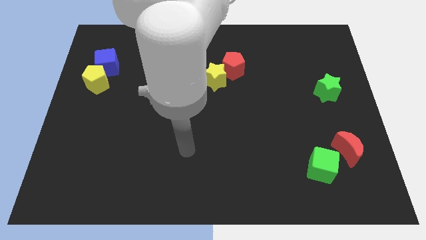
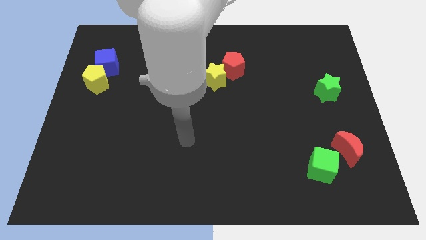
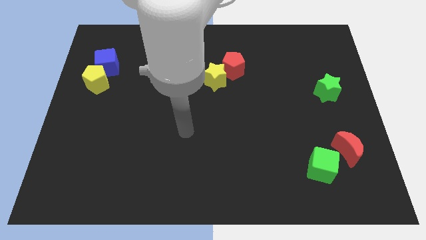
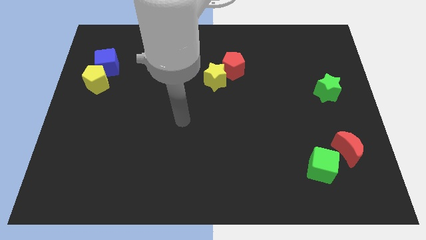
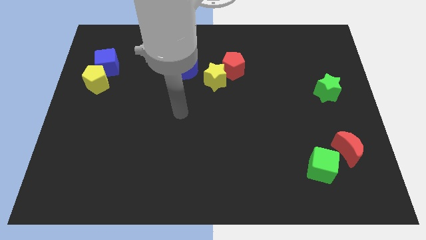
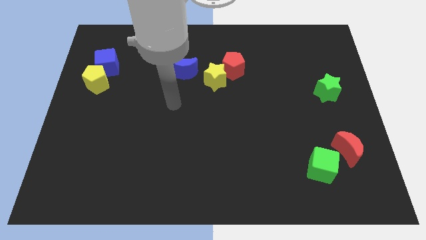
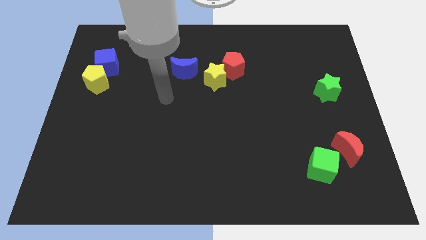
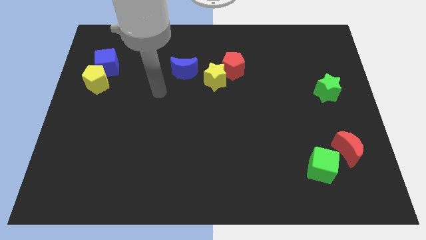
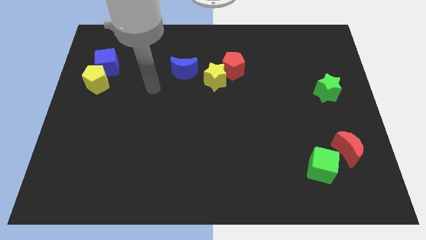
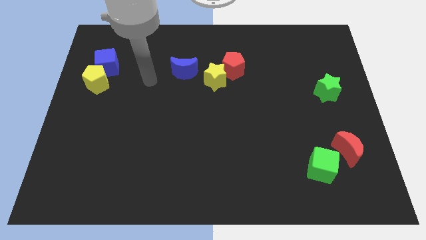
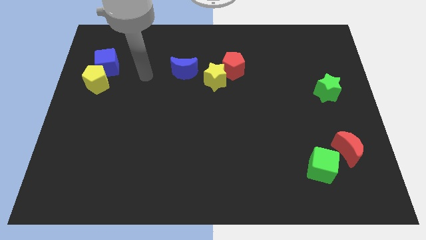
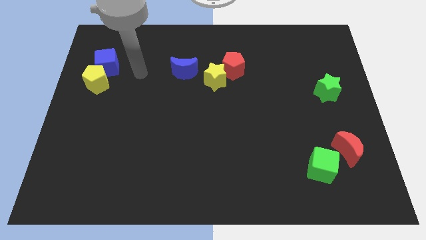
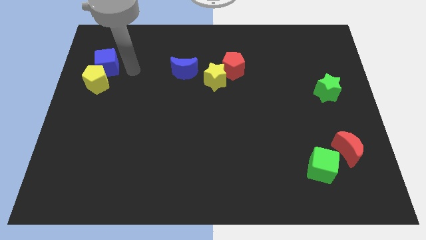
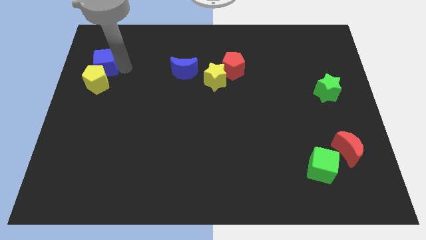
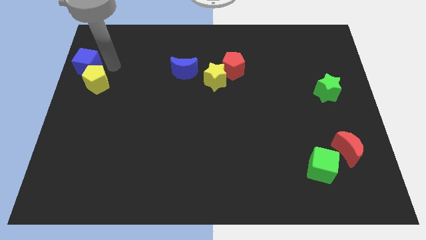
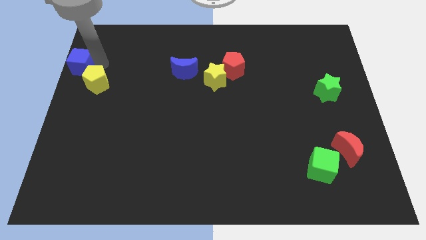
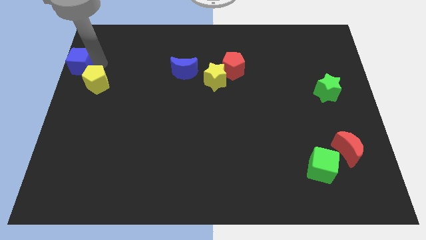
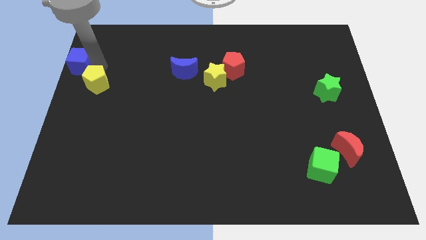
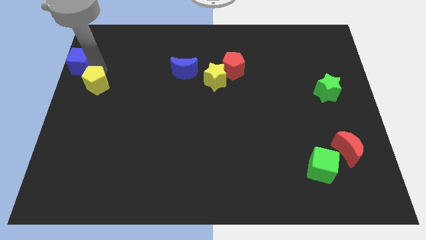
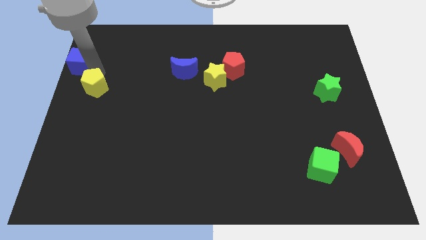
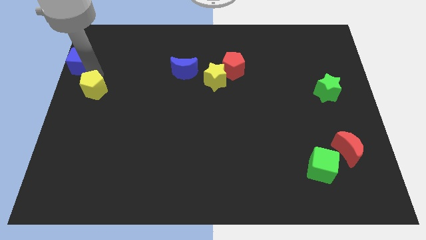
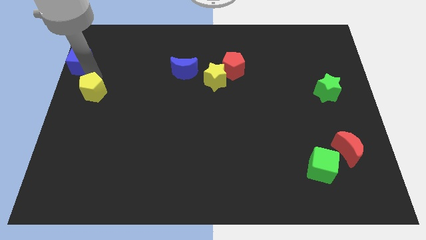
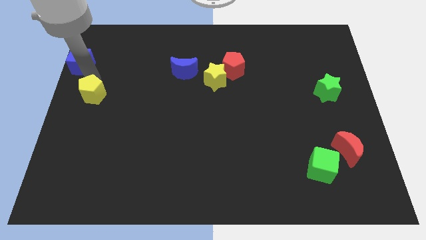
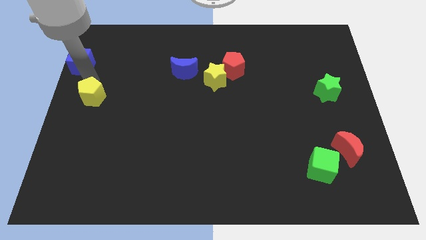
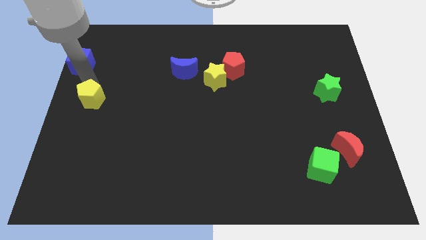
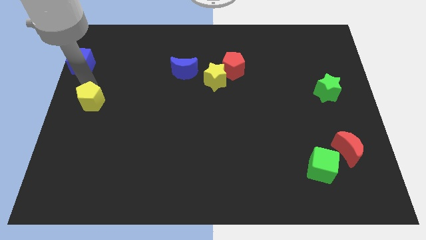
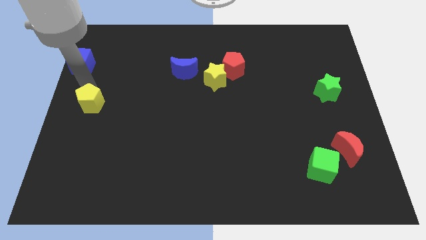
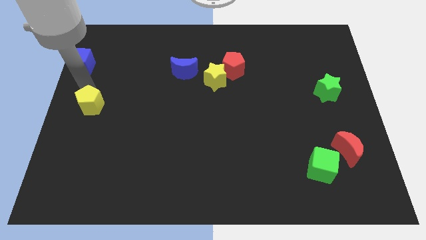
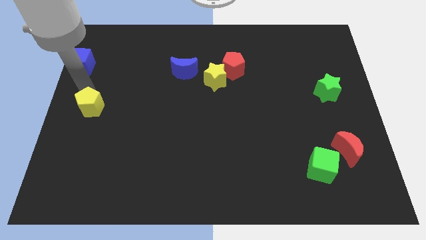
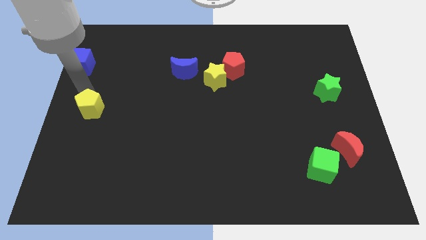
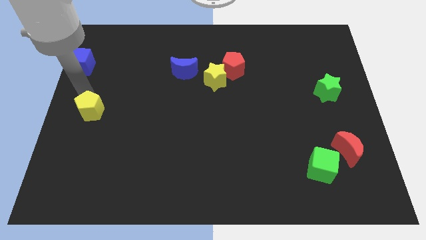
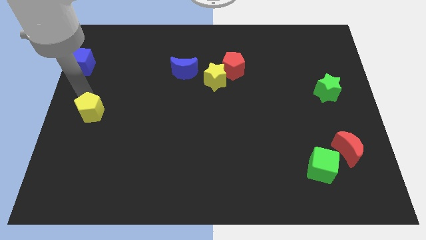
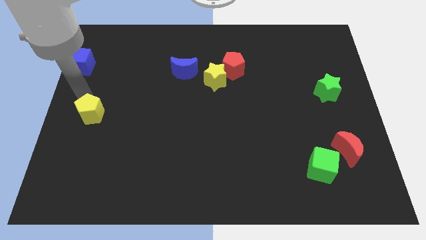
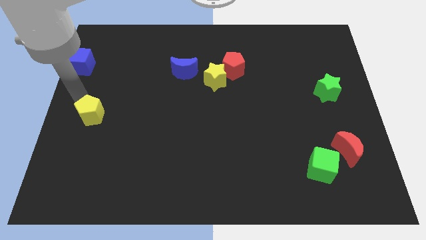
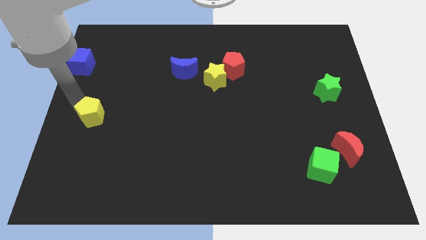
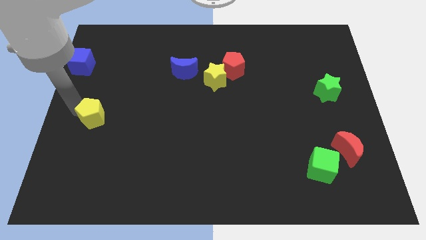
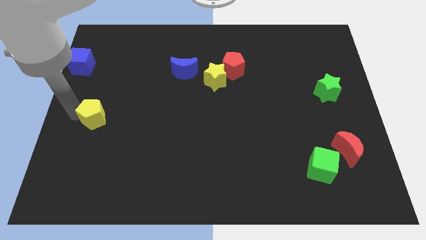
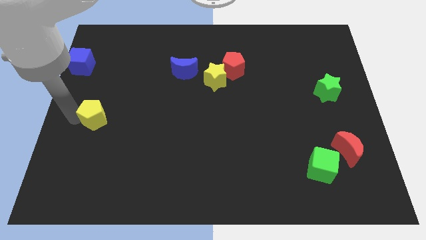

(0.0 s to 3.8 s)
slightly push the yellow pentagon downwards and to the right diagonally

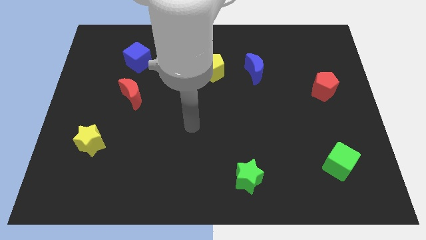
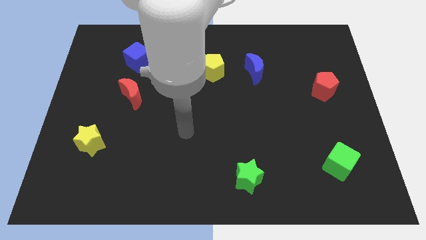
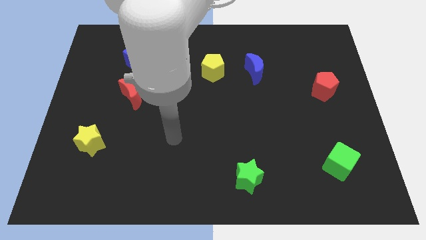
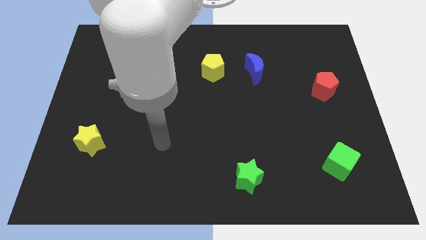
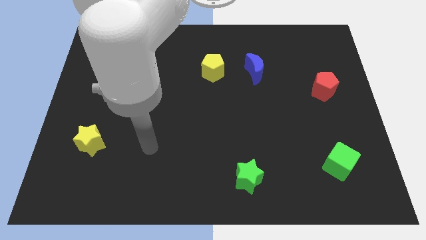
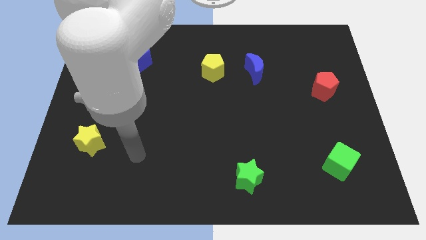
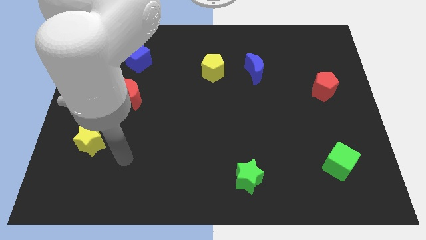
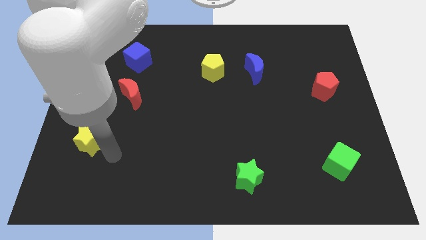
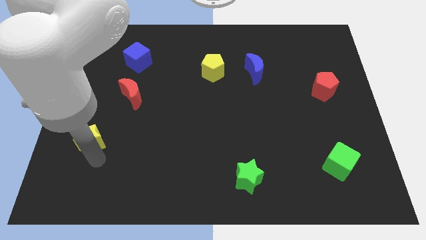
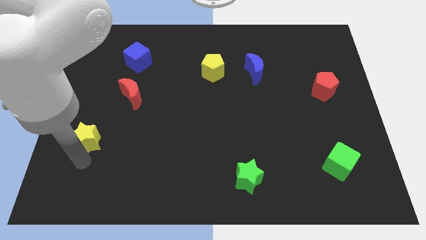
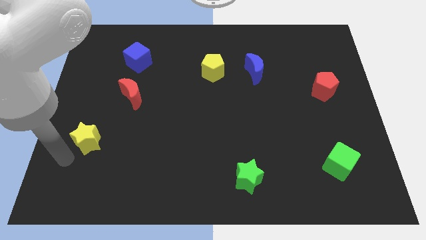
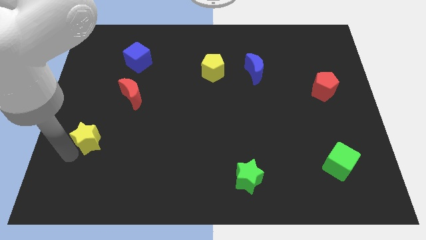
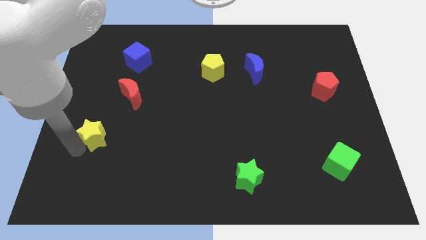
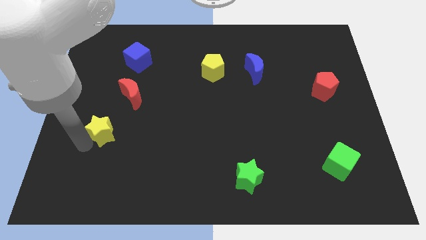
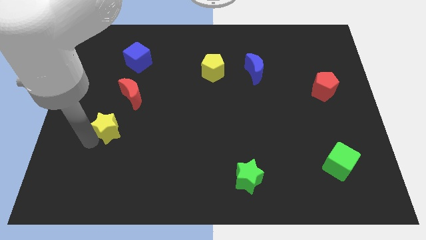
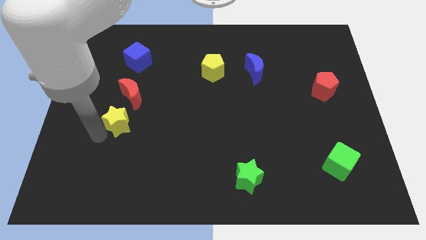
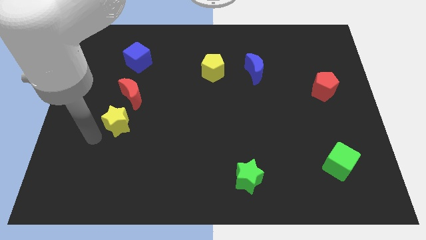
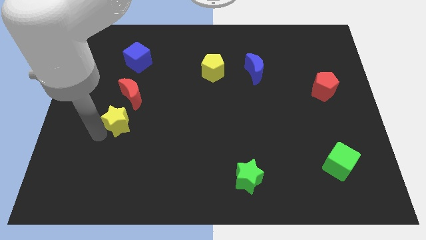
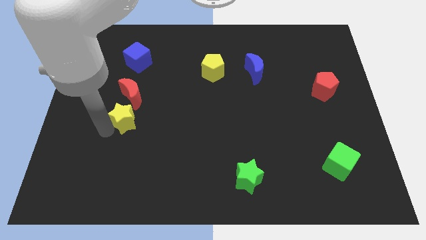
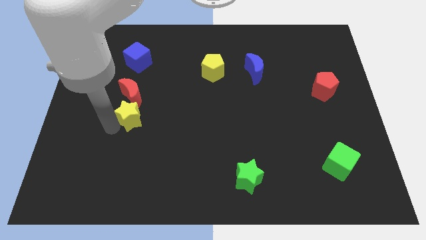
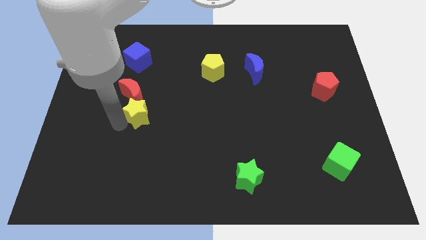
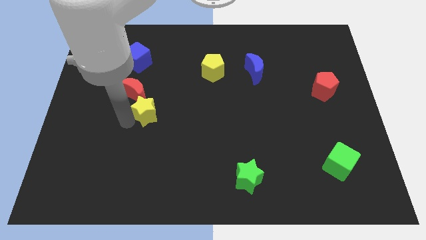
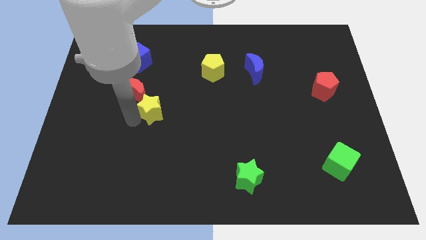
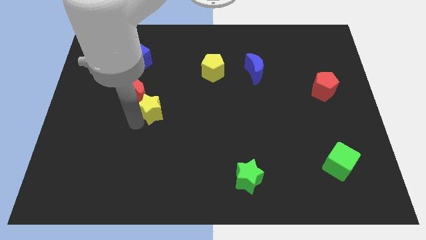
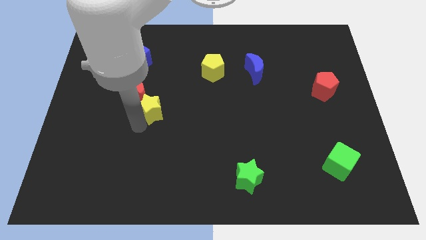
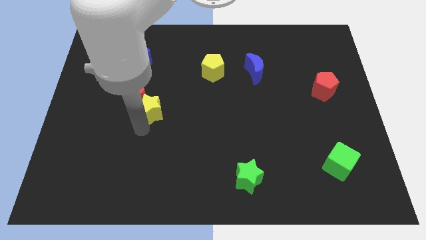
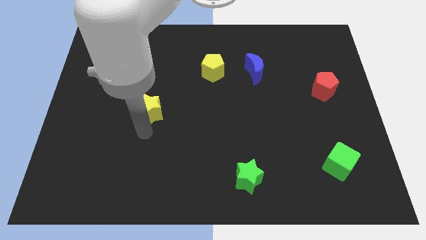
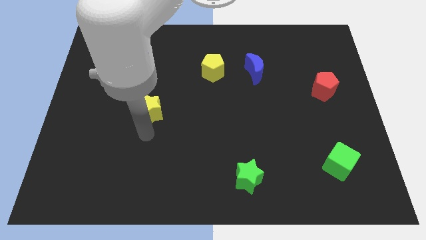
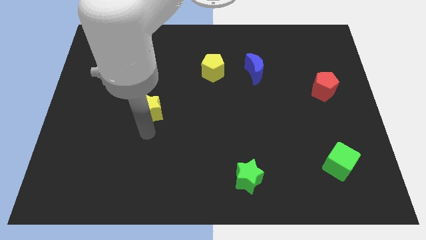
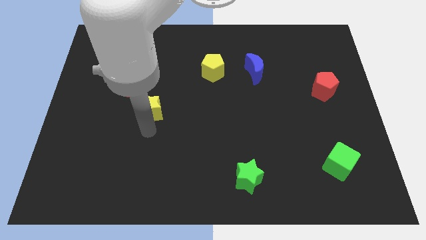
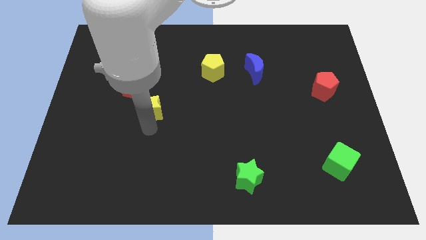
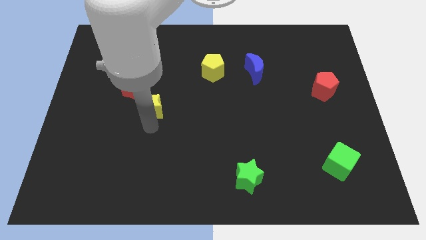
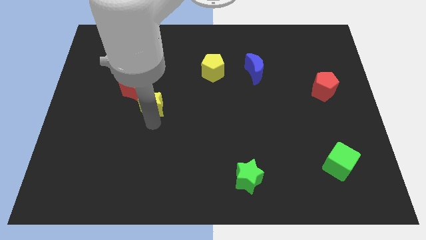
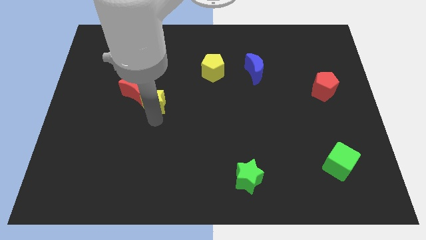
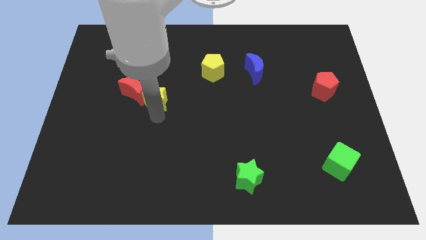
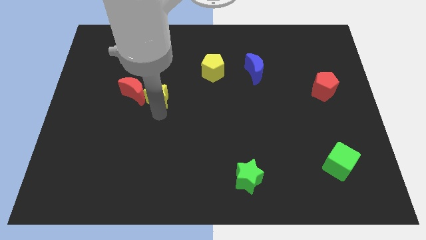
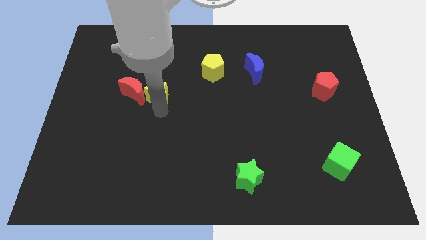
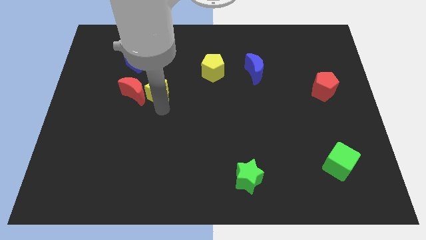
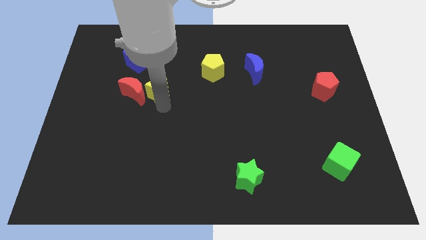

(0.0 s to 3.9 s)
push the yellow star up and to the right diagonally

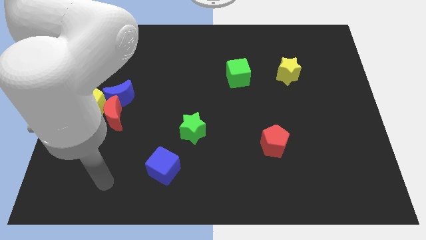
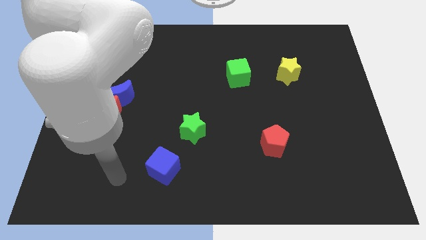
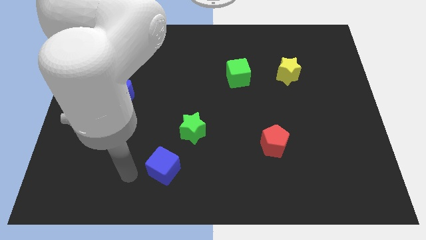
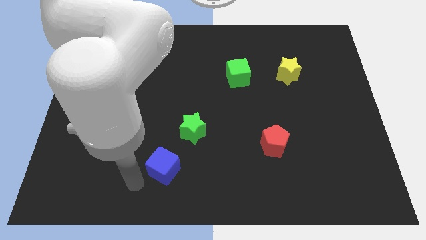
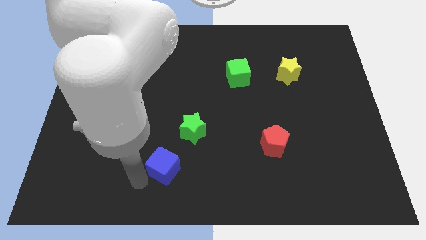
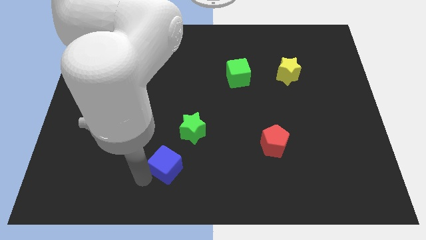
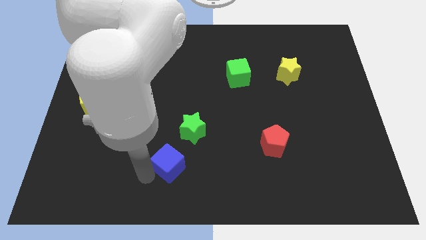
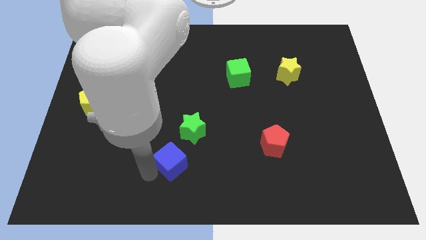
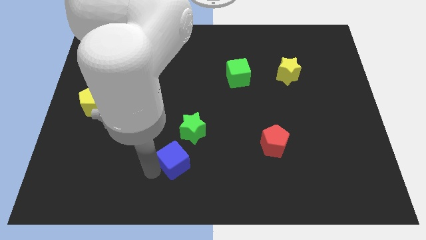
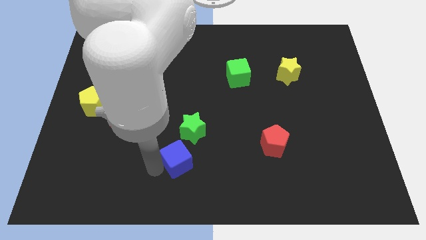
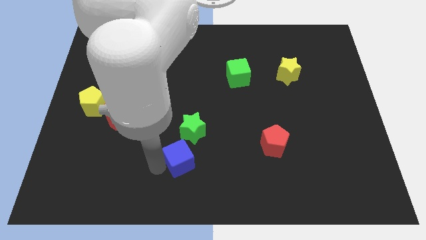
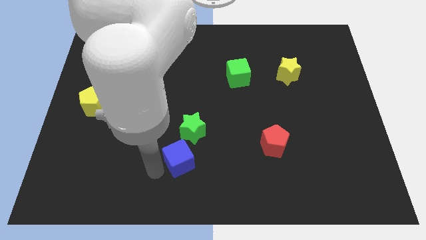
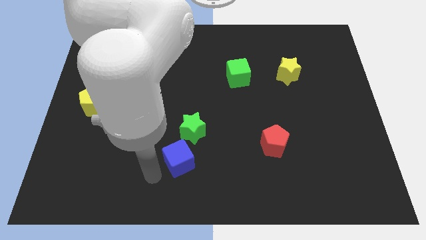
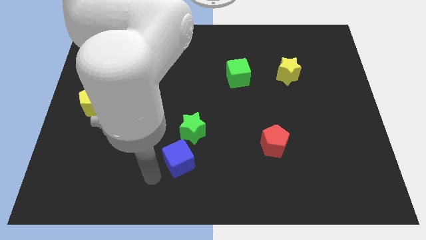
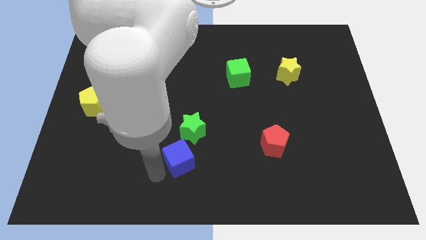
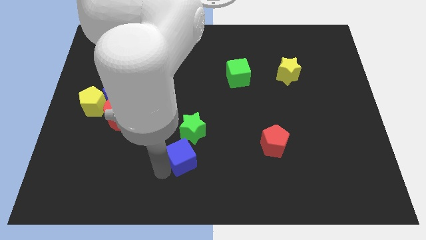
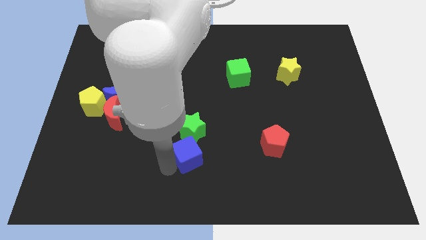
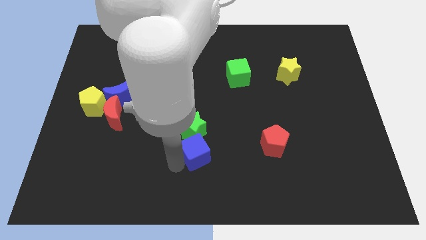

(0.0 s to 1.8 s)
slightly move the blue cube upwards and right diagonally
